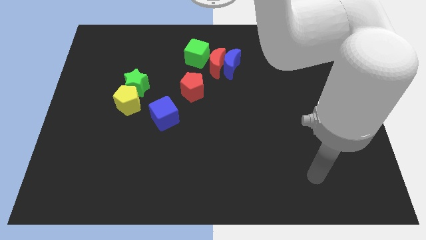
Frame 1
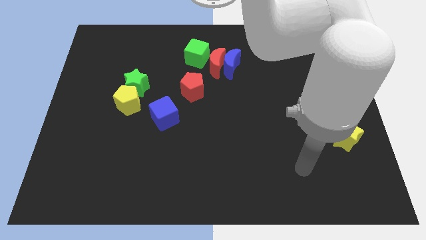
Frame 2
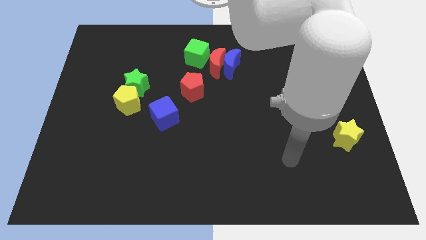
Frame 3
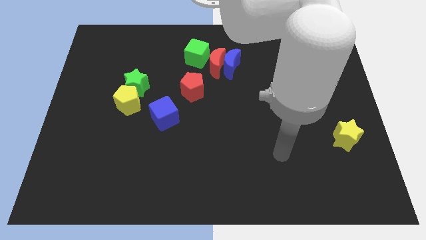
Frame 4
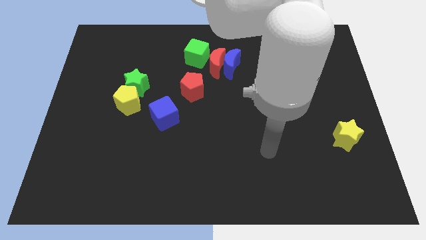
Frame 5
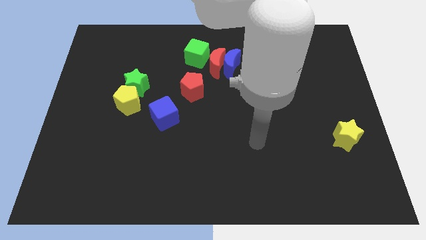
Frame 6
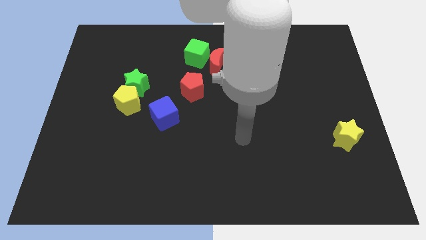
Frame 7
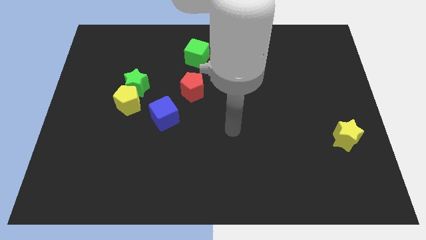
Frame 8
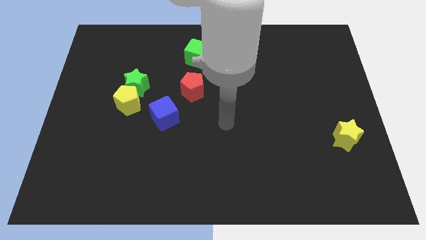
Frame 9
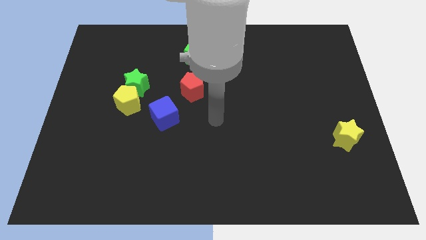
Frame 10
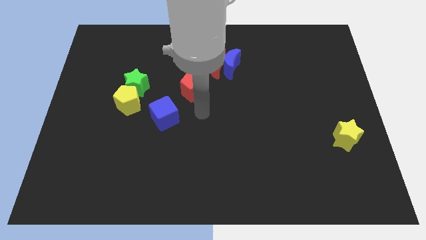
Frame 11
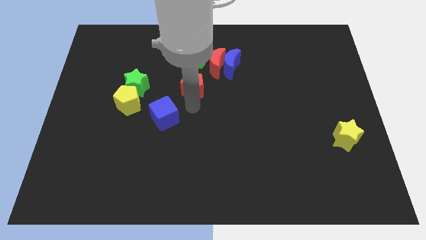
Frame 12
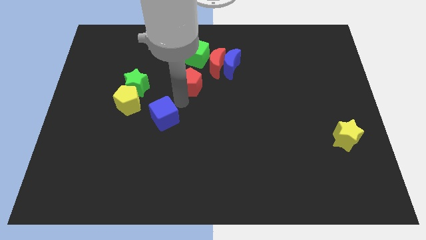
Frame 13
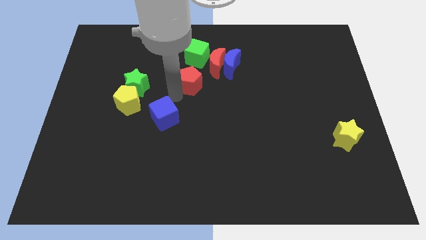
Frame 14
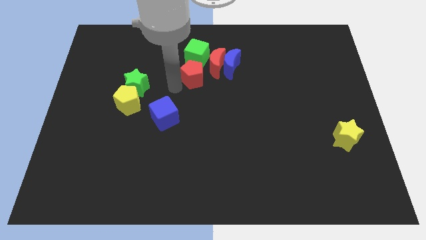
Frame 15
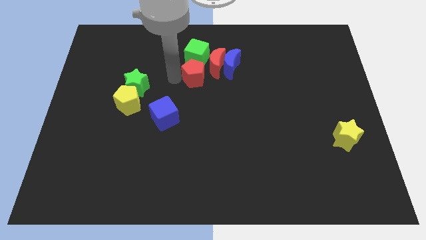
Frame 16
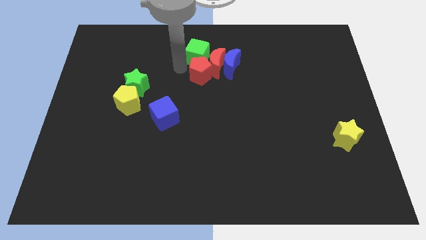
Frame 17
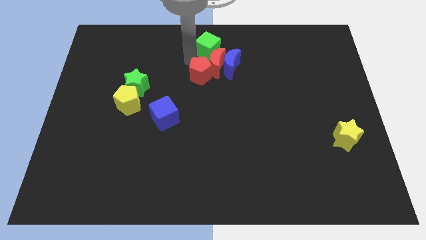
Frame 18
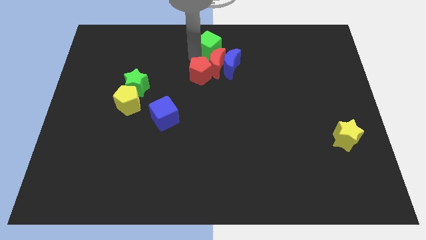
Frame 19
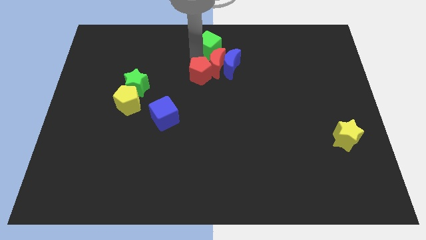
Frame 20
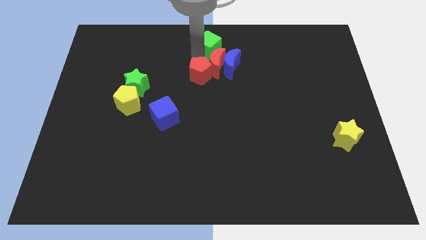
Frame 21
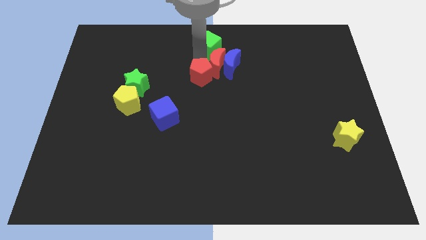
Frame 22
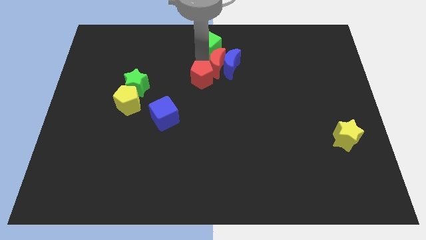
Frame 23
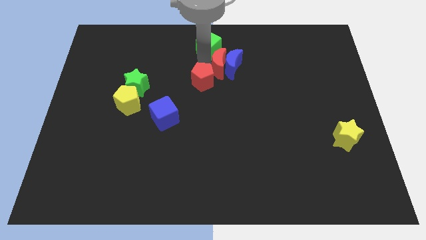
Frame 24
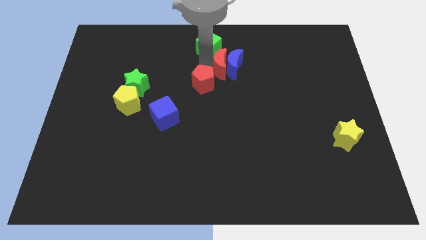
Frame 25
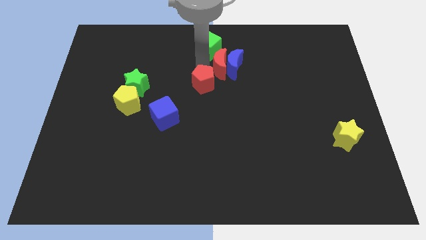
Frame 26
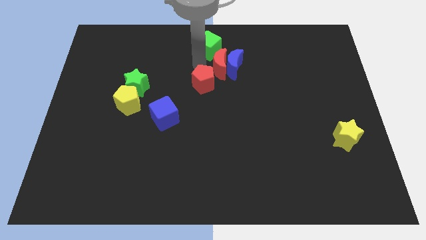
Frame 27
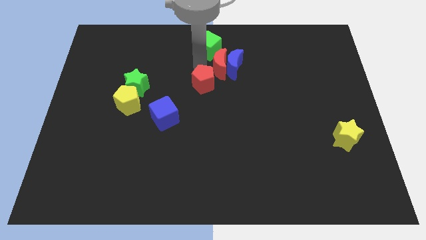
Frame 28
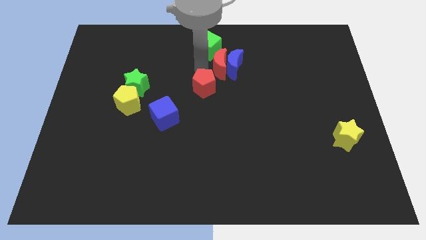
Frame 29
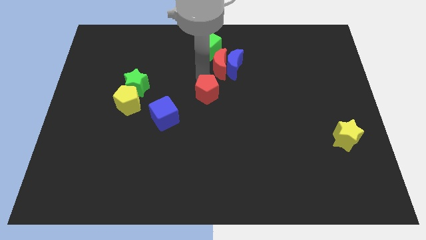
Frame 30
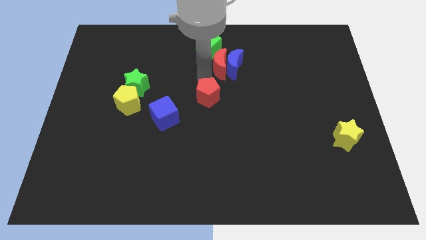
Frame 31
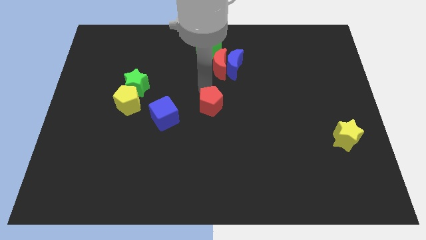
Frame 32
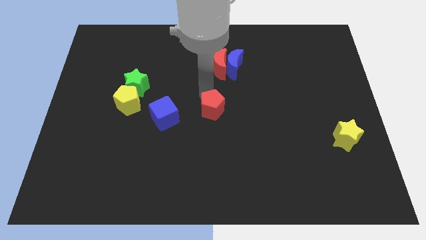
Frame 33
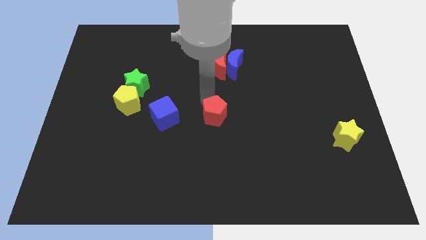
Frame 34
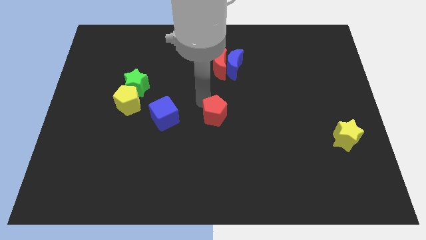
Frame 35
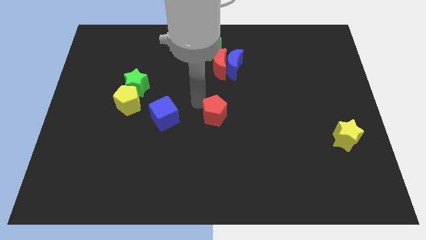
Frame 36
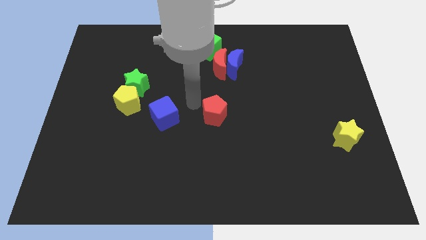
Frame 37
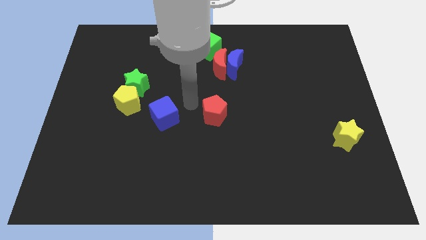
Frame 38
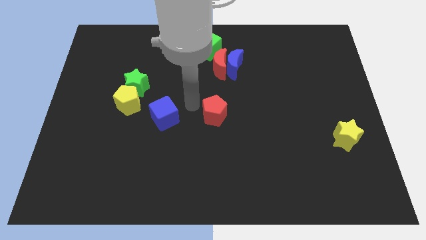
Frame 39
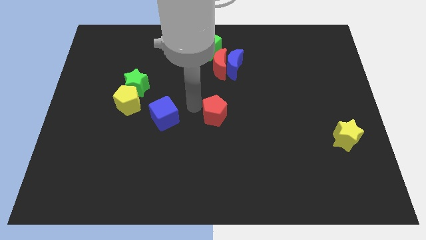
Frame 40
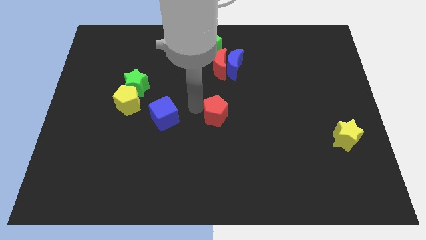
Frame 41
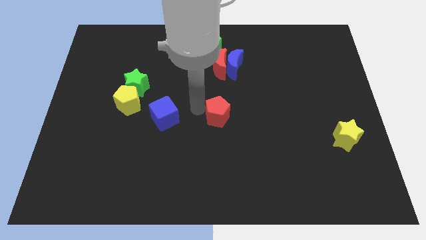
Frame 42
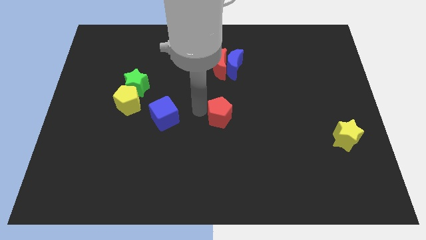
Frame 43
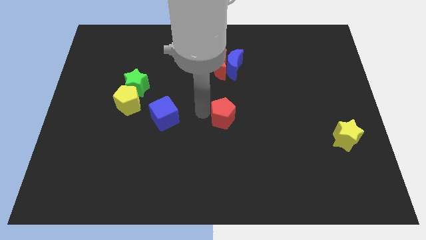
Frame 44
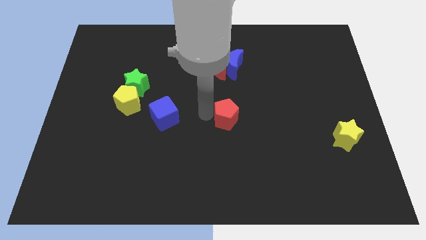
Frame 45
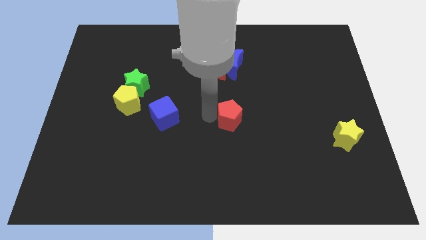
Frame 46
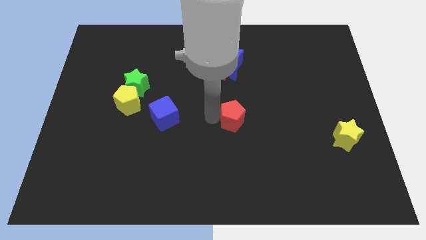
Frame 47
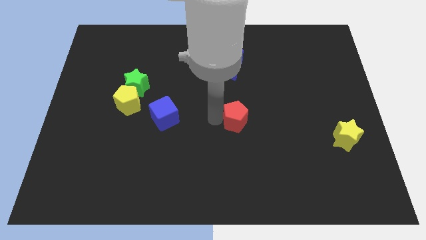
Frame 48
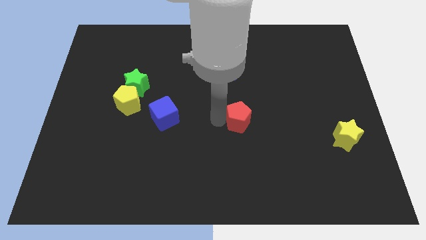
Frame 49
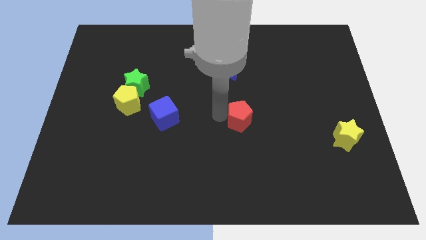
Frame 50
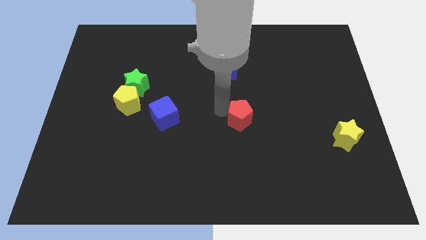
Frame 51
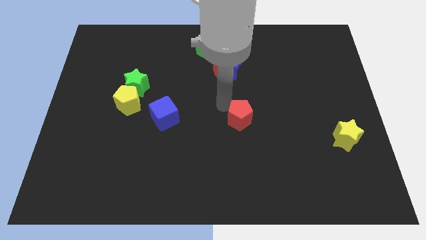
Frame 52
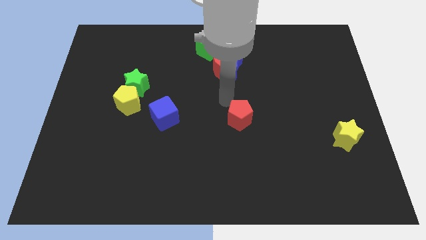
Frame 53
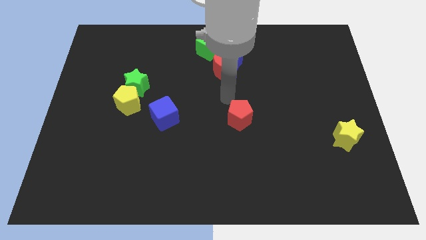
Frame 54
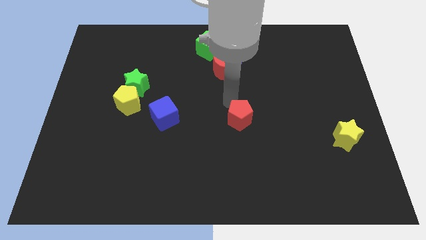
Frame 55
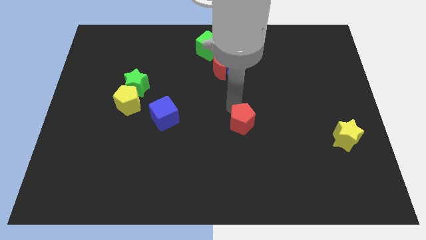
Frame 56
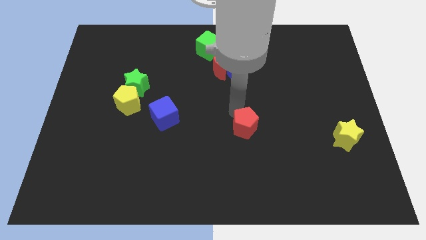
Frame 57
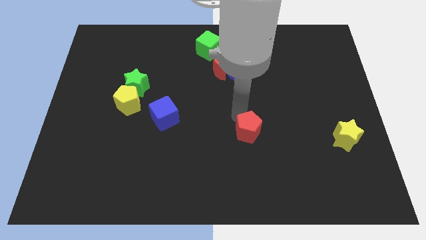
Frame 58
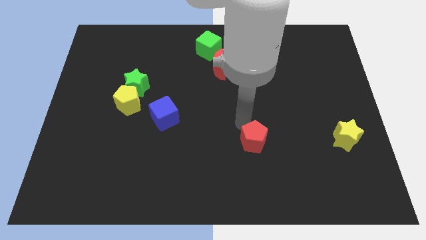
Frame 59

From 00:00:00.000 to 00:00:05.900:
slide the red pentagon down and right

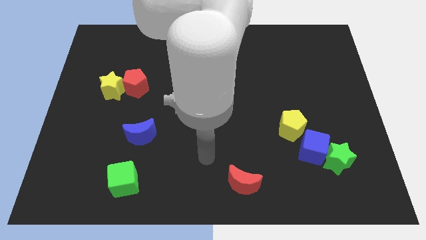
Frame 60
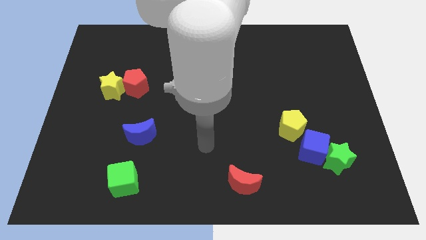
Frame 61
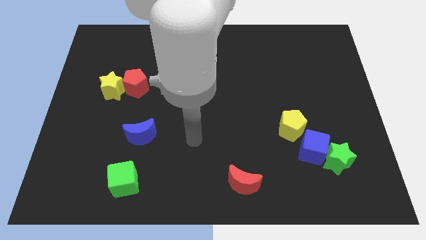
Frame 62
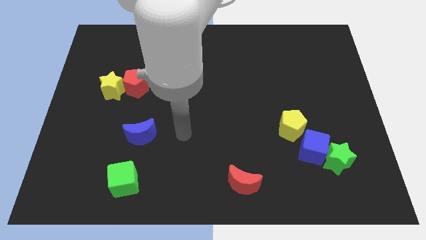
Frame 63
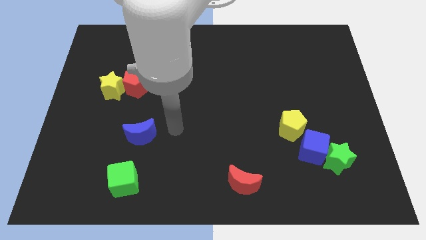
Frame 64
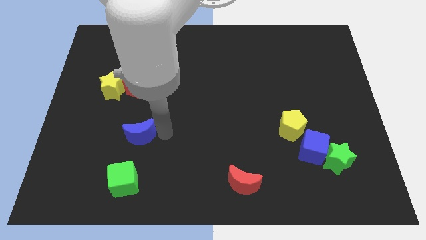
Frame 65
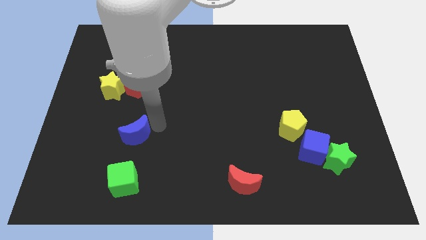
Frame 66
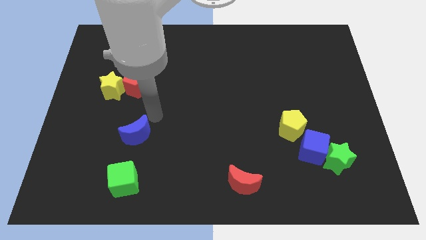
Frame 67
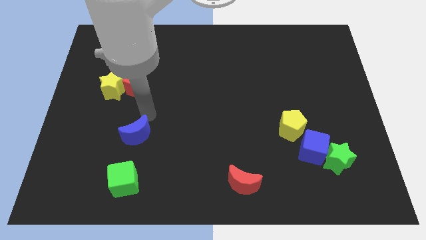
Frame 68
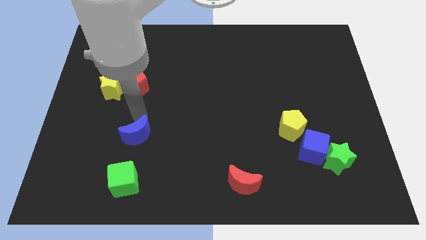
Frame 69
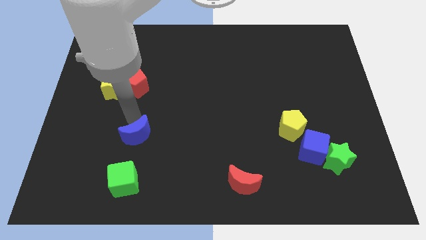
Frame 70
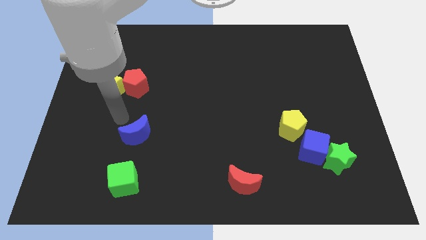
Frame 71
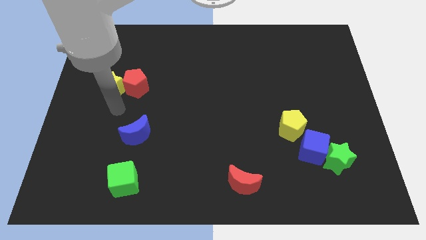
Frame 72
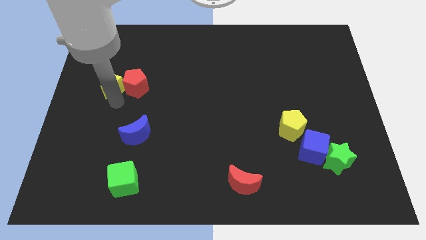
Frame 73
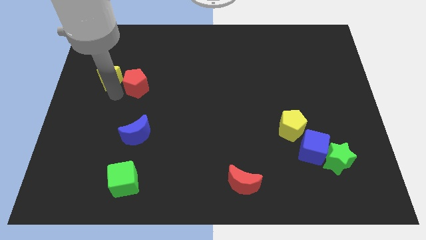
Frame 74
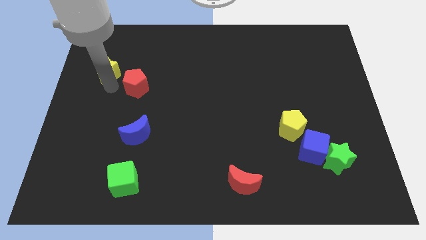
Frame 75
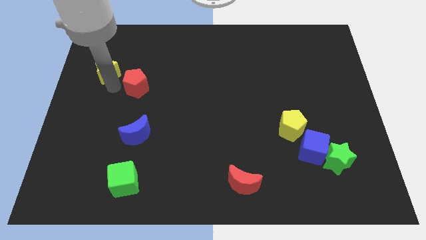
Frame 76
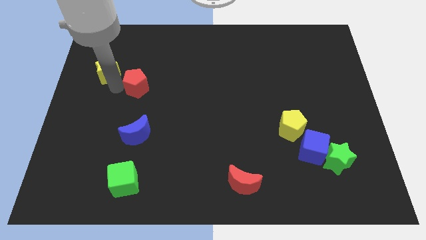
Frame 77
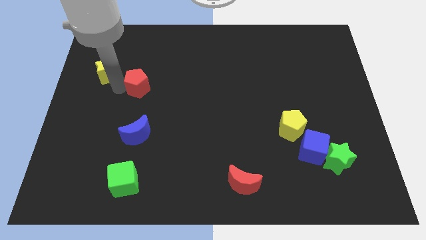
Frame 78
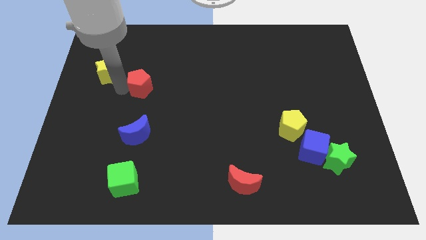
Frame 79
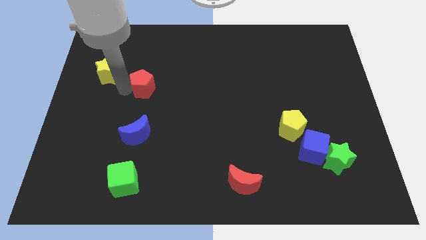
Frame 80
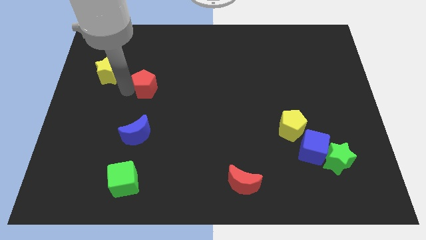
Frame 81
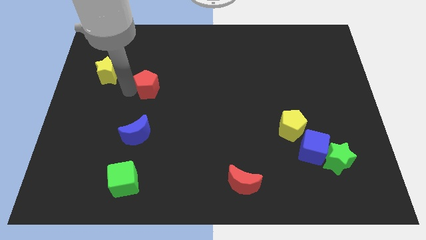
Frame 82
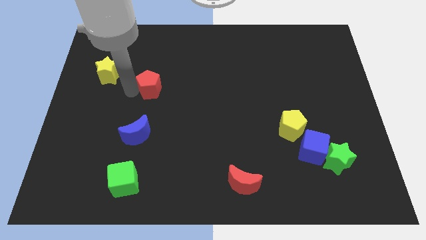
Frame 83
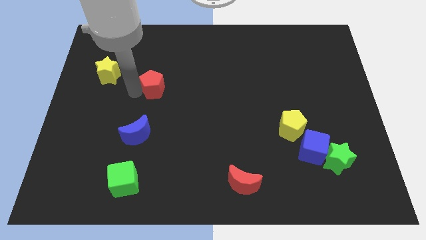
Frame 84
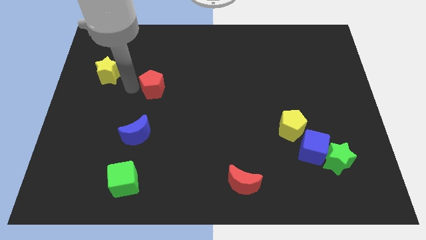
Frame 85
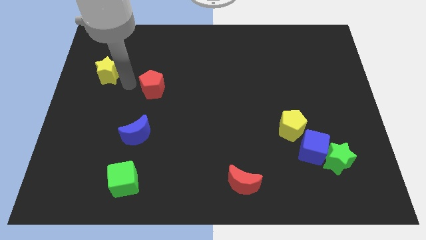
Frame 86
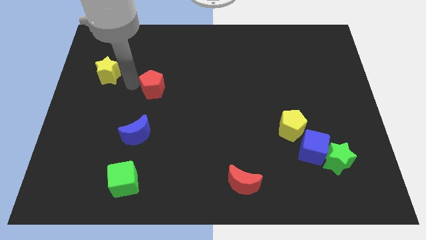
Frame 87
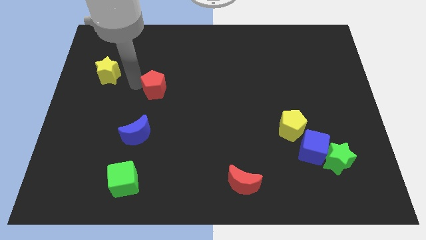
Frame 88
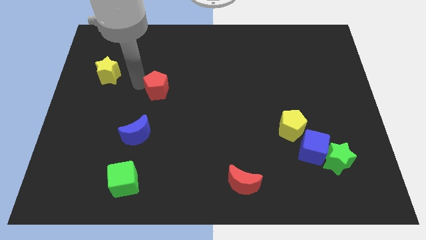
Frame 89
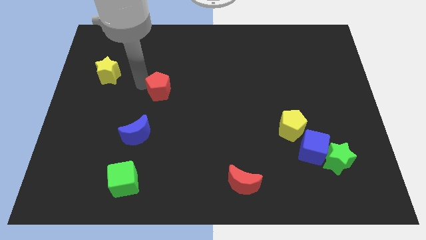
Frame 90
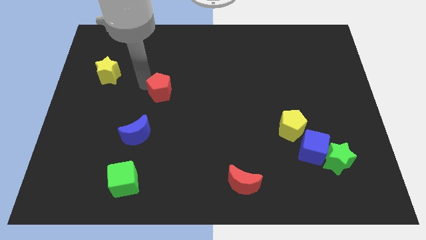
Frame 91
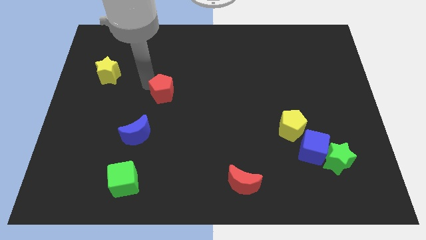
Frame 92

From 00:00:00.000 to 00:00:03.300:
move the red pentagon somewhat right
